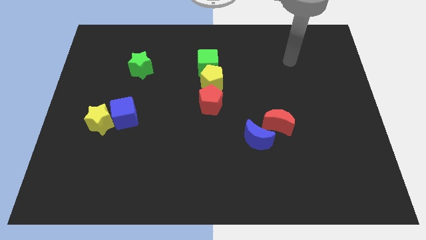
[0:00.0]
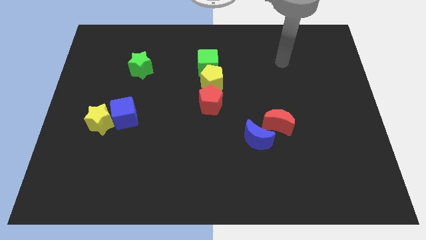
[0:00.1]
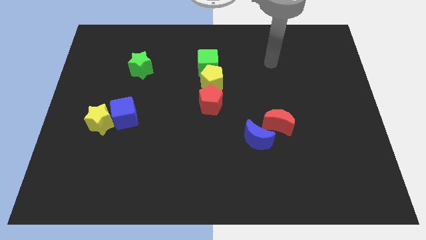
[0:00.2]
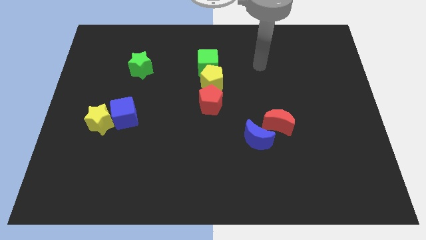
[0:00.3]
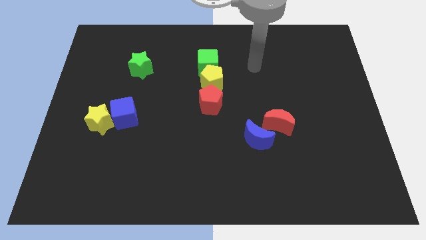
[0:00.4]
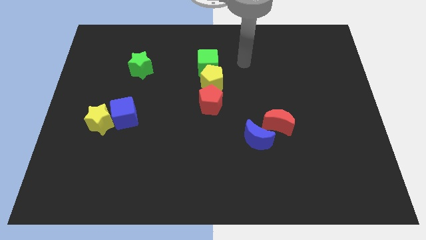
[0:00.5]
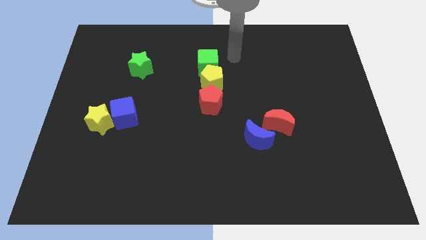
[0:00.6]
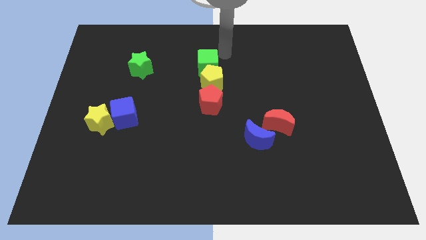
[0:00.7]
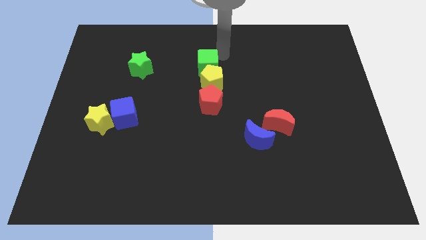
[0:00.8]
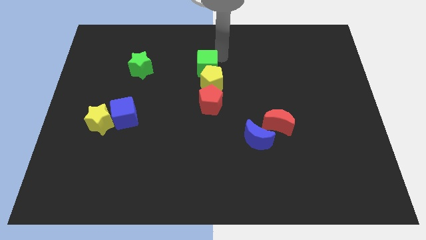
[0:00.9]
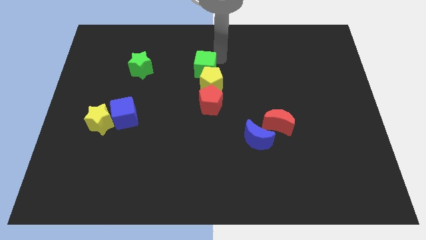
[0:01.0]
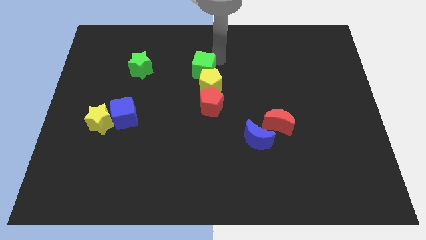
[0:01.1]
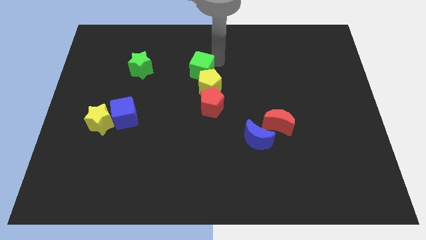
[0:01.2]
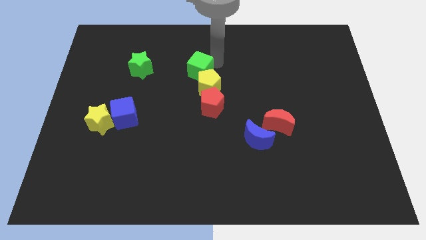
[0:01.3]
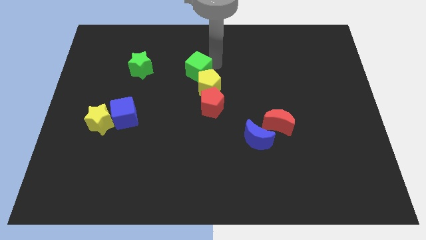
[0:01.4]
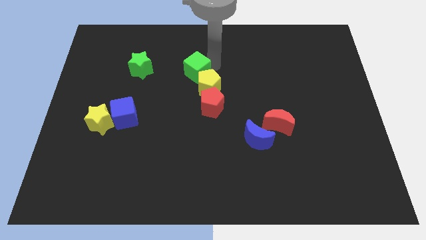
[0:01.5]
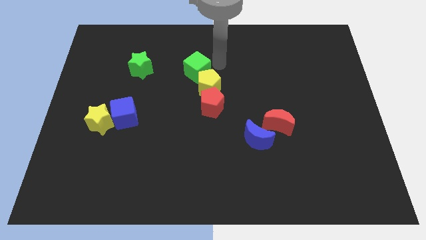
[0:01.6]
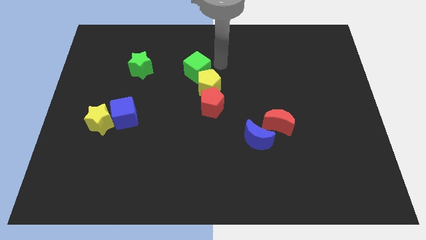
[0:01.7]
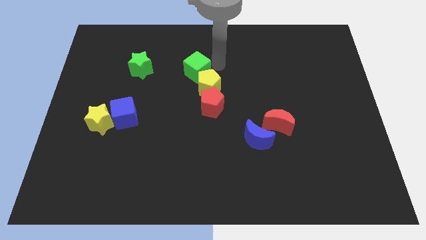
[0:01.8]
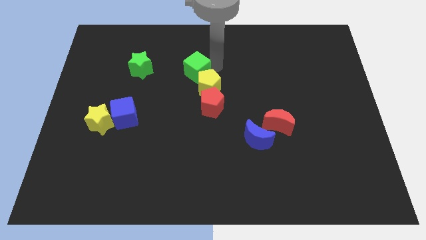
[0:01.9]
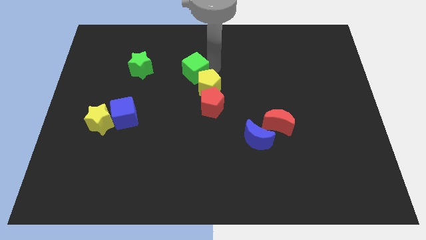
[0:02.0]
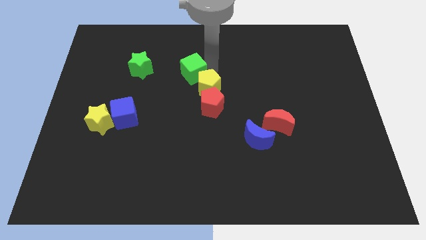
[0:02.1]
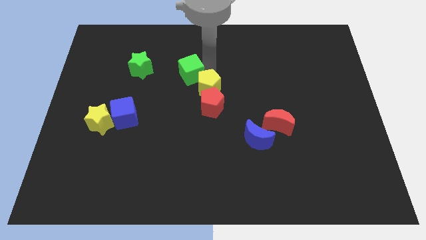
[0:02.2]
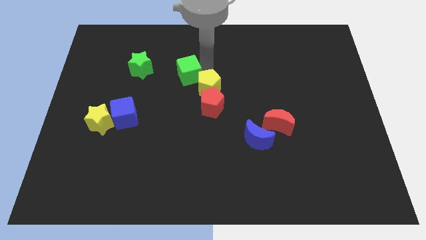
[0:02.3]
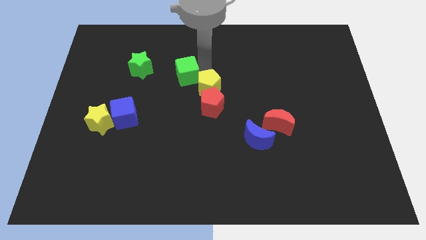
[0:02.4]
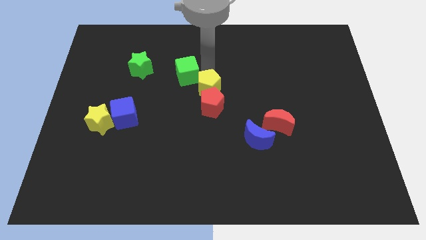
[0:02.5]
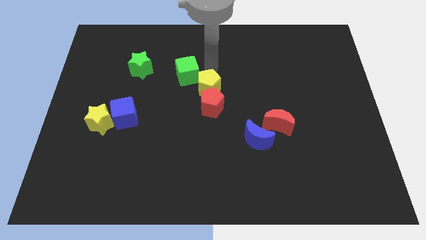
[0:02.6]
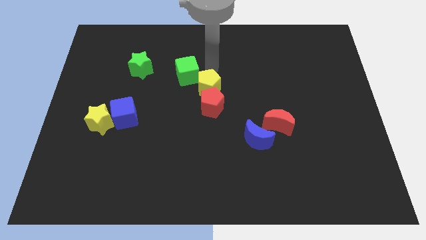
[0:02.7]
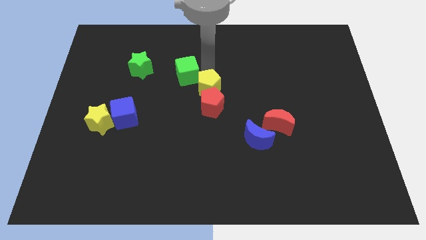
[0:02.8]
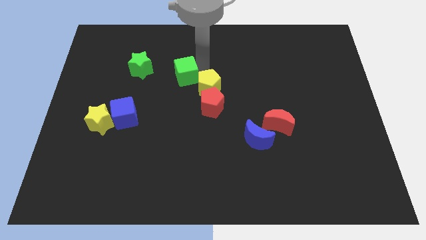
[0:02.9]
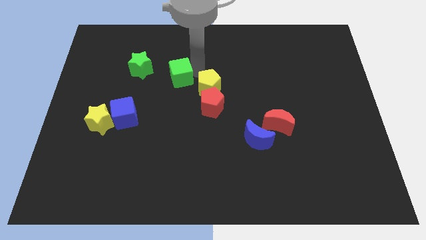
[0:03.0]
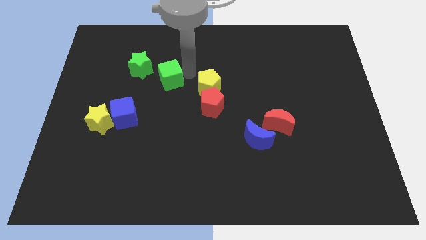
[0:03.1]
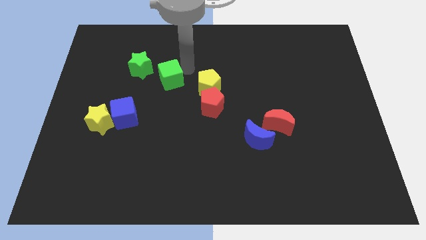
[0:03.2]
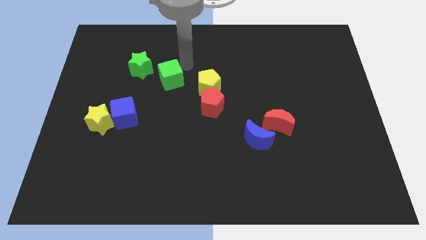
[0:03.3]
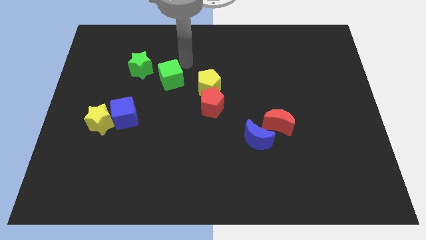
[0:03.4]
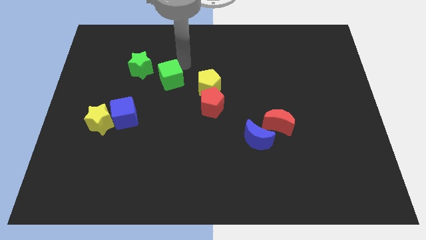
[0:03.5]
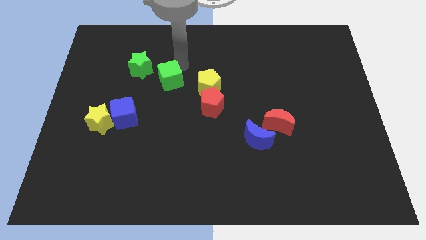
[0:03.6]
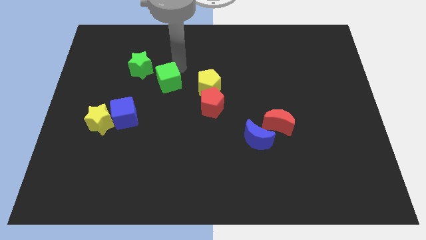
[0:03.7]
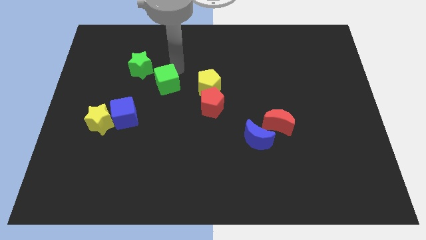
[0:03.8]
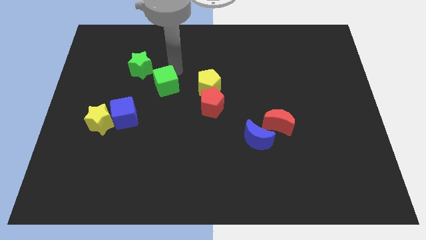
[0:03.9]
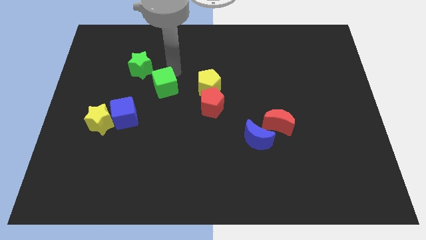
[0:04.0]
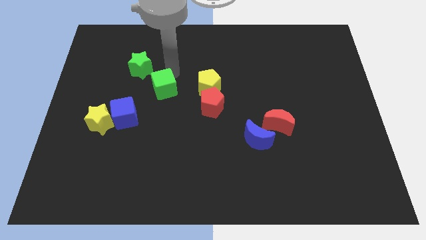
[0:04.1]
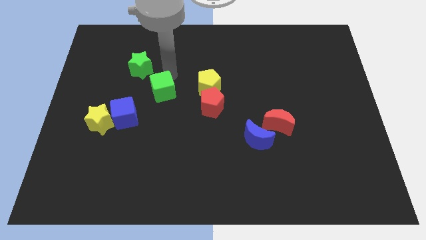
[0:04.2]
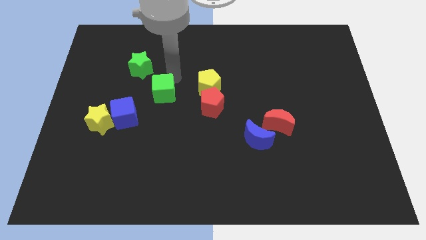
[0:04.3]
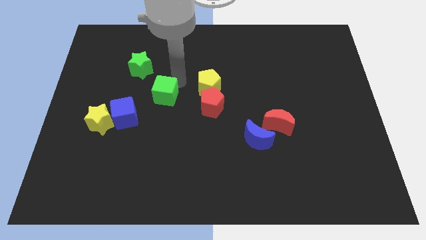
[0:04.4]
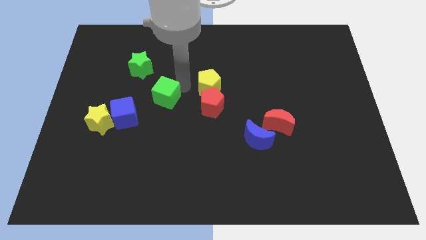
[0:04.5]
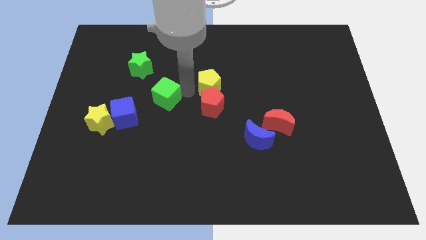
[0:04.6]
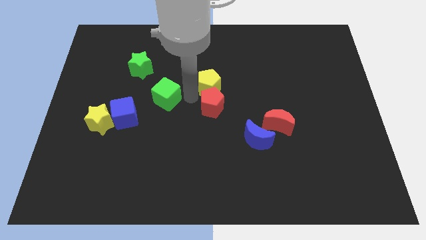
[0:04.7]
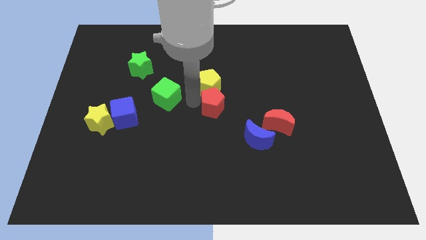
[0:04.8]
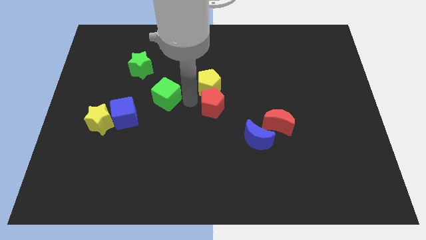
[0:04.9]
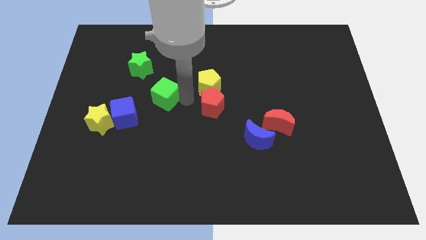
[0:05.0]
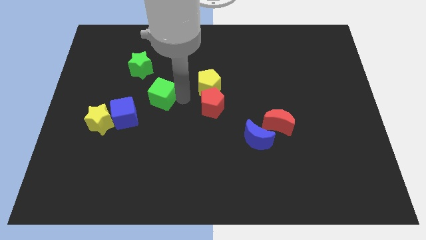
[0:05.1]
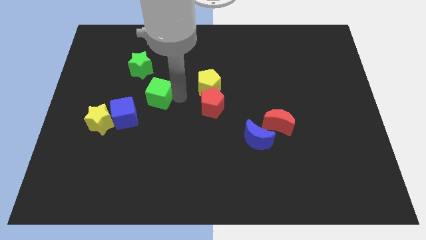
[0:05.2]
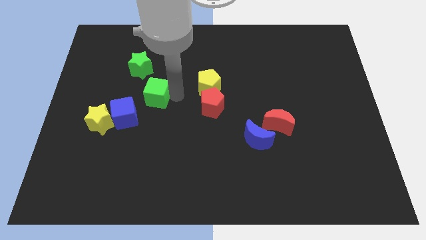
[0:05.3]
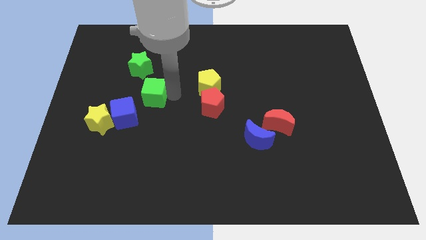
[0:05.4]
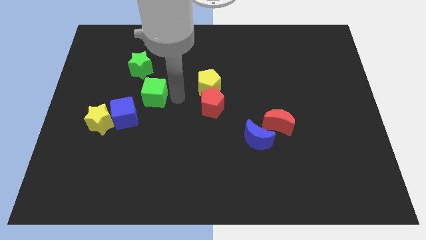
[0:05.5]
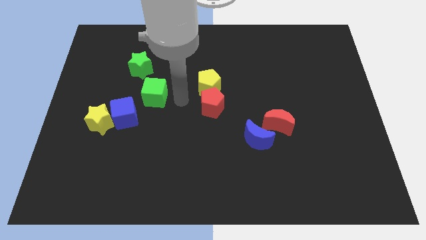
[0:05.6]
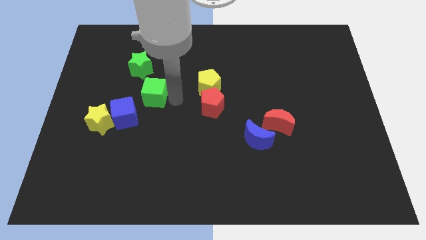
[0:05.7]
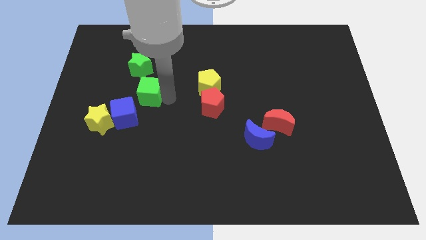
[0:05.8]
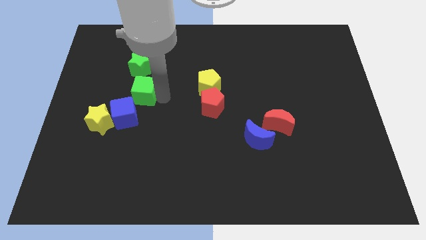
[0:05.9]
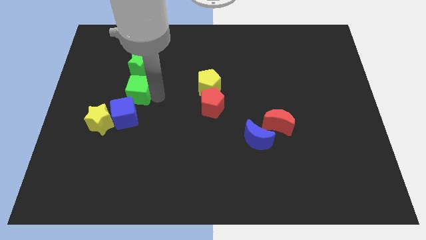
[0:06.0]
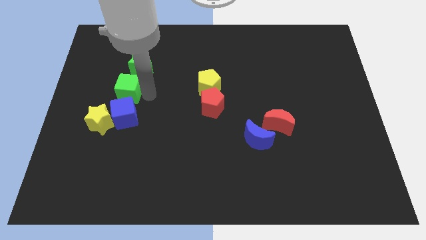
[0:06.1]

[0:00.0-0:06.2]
push the green cube to the top side of the yellow star

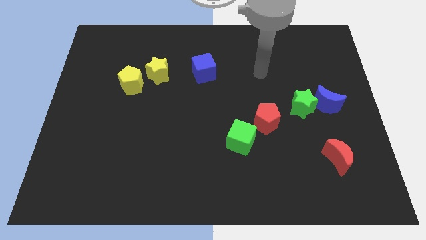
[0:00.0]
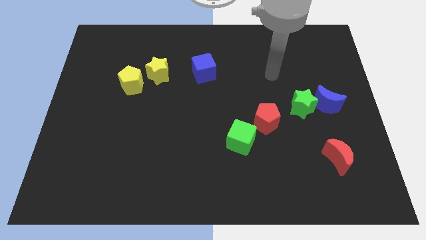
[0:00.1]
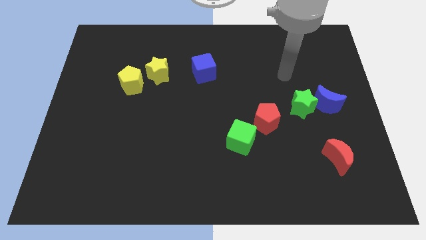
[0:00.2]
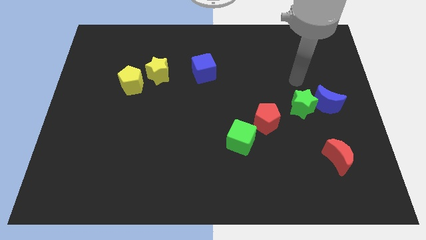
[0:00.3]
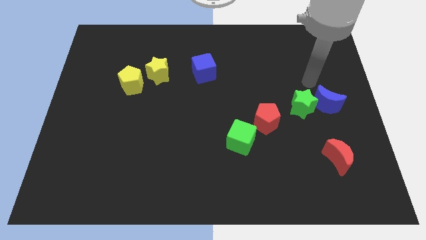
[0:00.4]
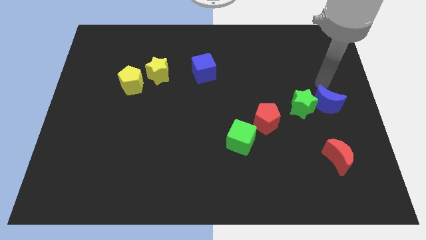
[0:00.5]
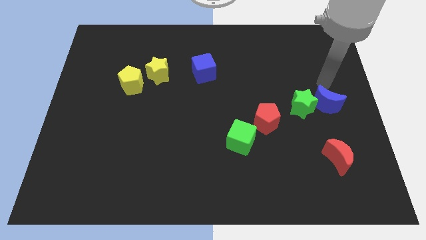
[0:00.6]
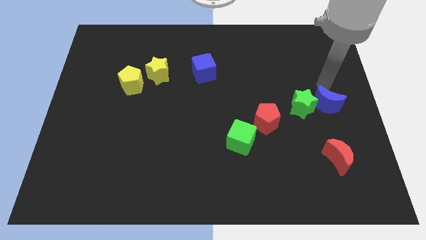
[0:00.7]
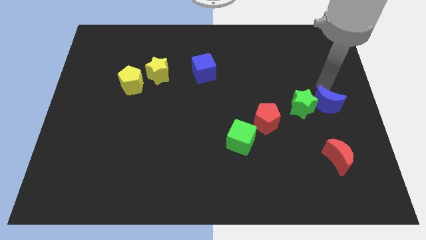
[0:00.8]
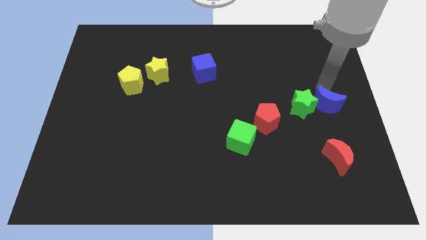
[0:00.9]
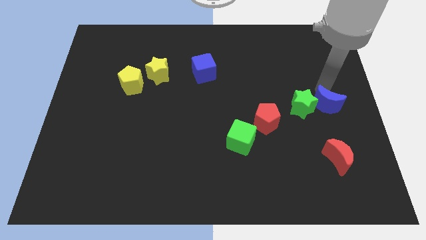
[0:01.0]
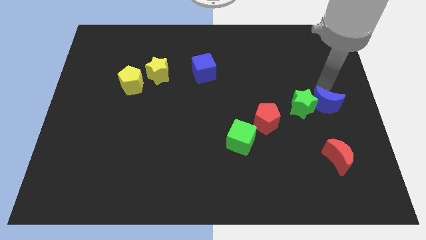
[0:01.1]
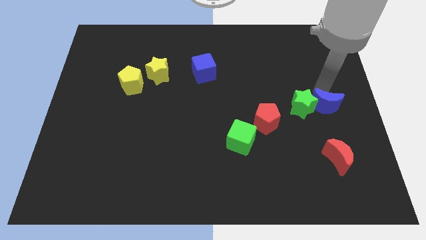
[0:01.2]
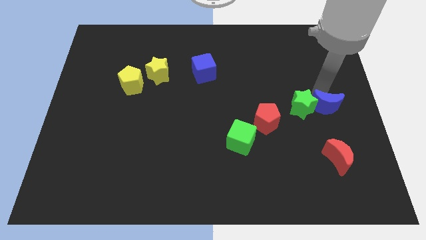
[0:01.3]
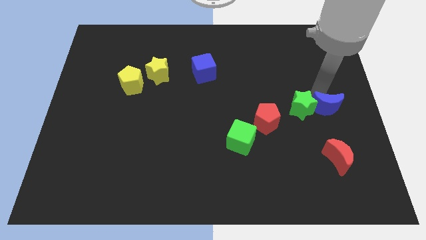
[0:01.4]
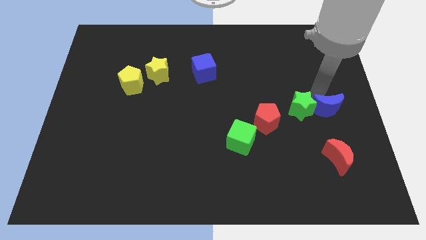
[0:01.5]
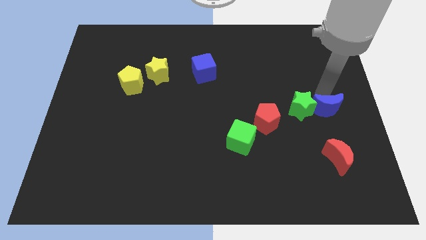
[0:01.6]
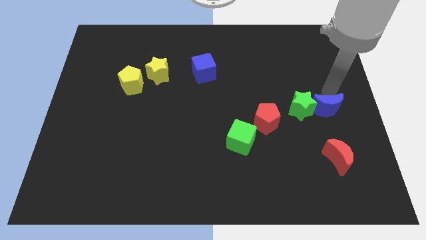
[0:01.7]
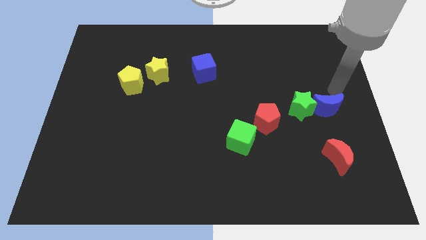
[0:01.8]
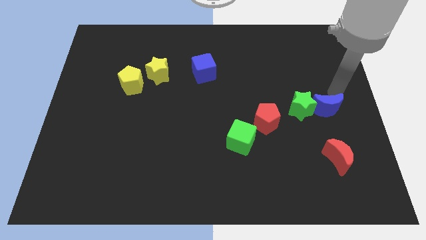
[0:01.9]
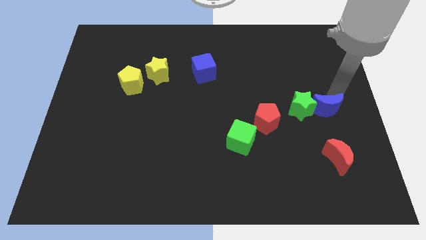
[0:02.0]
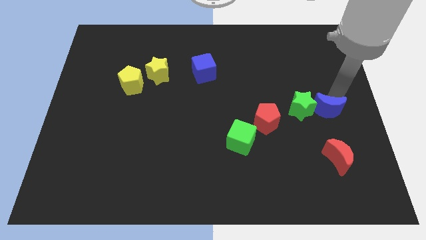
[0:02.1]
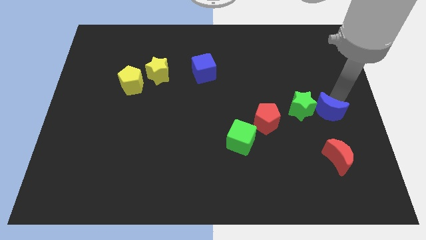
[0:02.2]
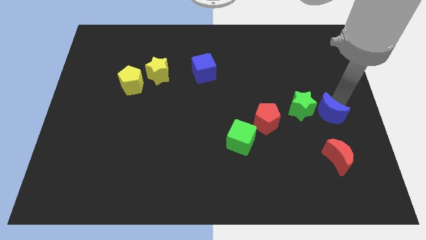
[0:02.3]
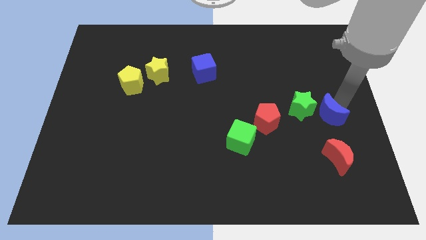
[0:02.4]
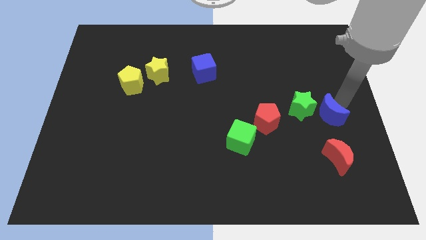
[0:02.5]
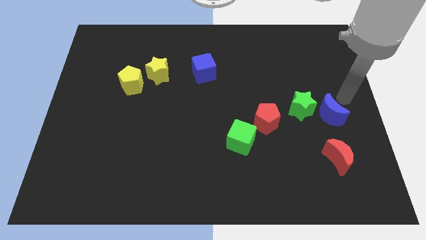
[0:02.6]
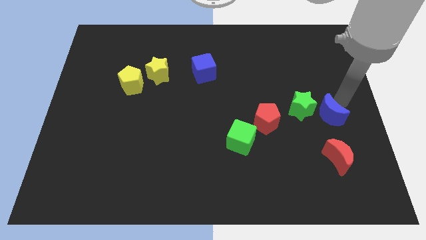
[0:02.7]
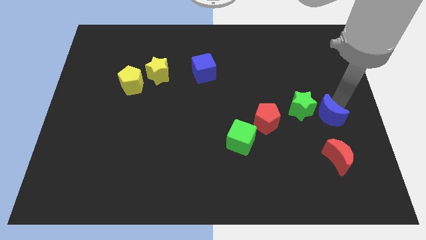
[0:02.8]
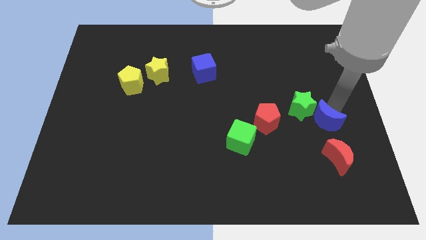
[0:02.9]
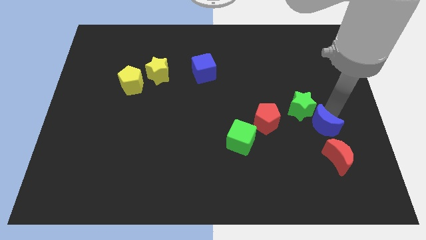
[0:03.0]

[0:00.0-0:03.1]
push the blue moon to the bottom side of the green star
